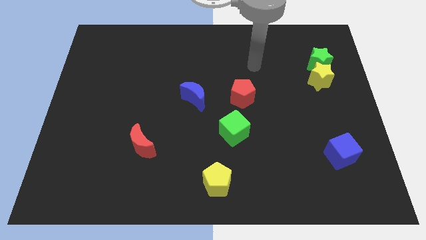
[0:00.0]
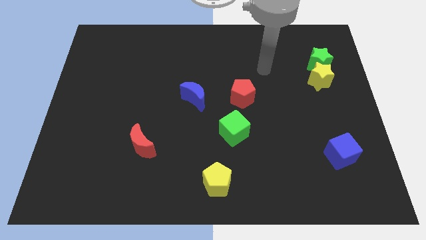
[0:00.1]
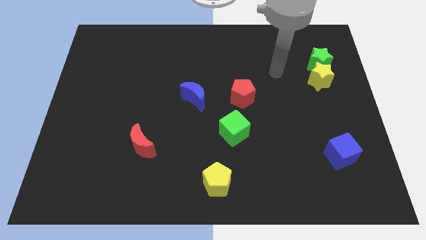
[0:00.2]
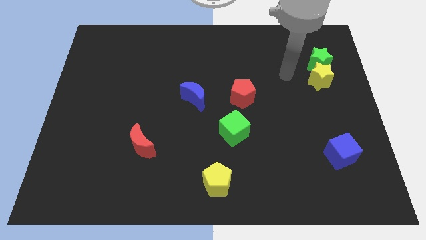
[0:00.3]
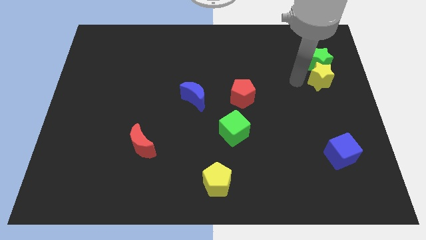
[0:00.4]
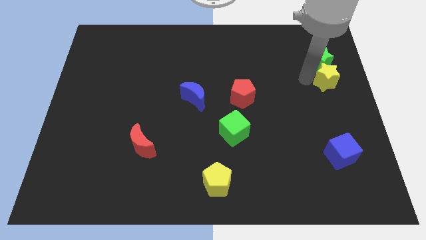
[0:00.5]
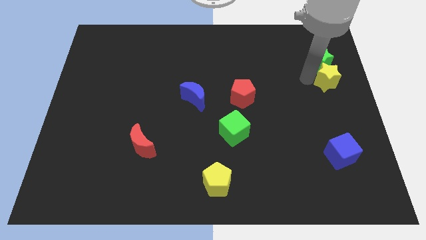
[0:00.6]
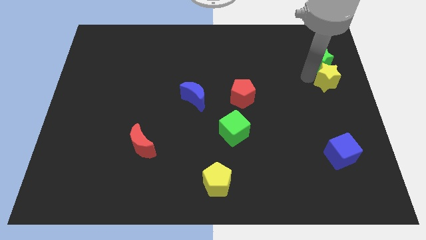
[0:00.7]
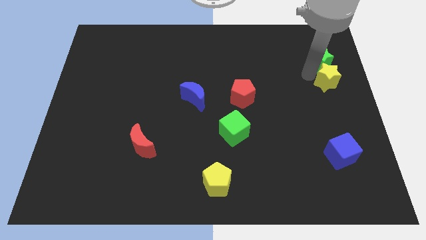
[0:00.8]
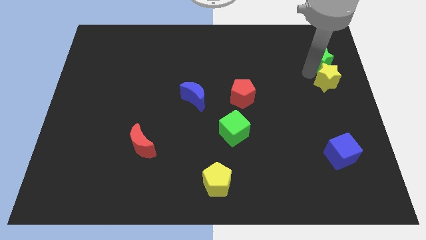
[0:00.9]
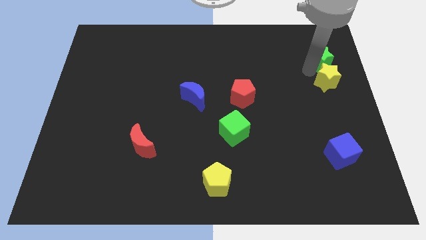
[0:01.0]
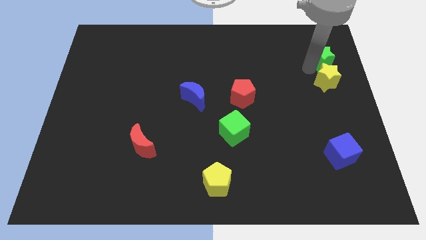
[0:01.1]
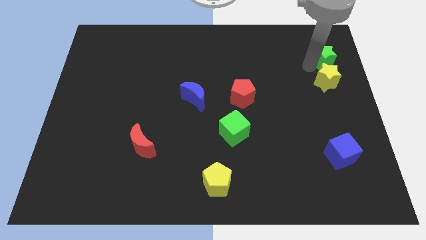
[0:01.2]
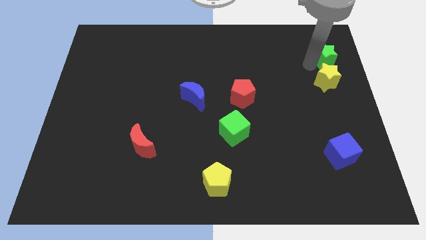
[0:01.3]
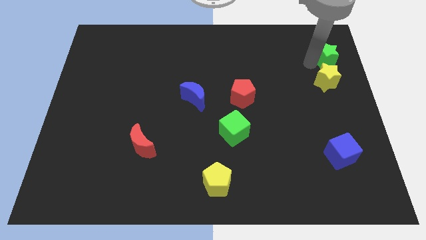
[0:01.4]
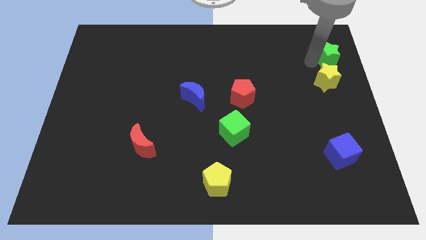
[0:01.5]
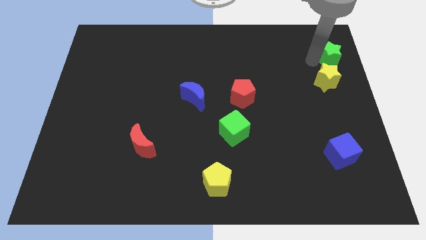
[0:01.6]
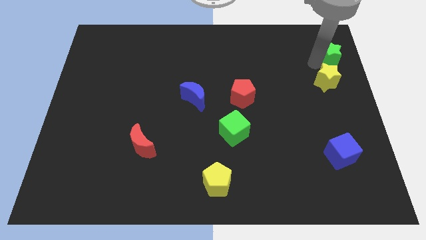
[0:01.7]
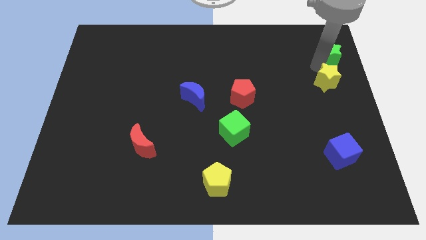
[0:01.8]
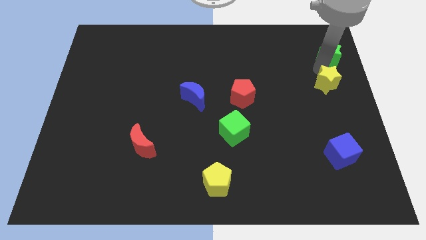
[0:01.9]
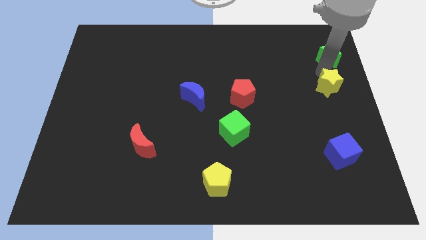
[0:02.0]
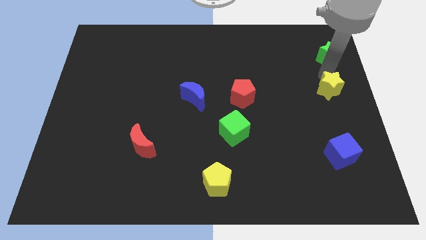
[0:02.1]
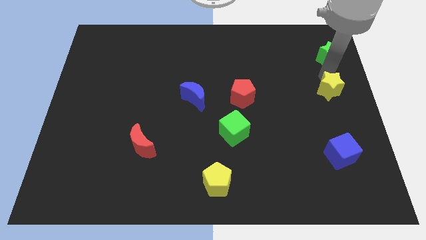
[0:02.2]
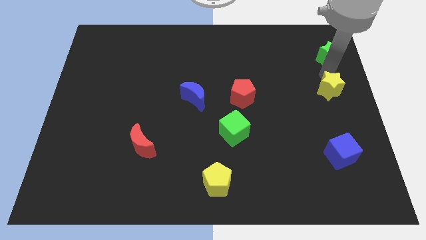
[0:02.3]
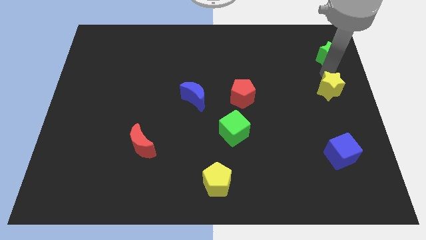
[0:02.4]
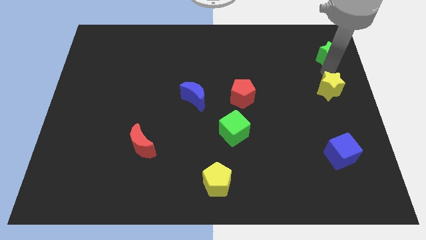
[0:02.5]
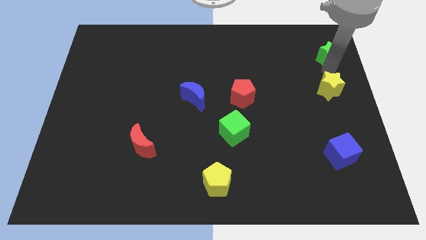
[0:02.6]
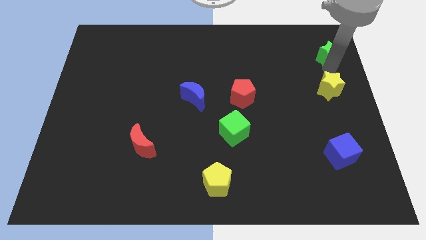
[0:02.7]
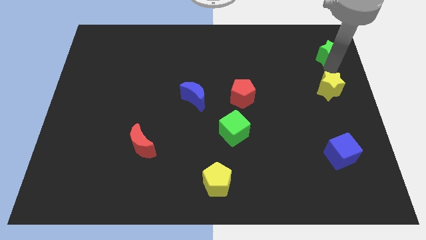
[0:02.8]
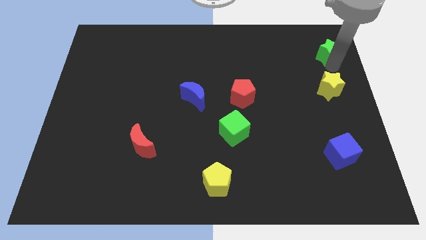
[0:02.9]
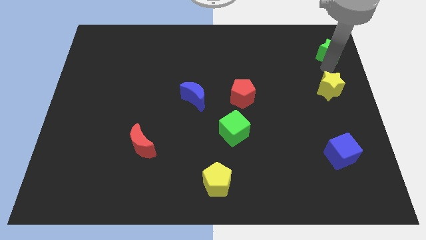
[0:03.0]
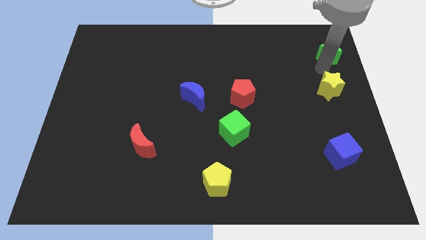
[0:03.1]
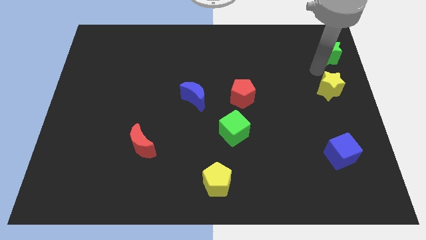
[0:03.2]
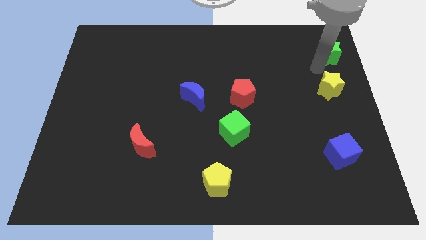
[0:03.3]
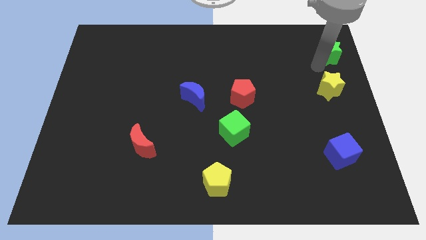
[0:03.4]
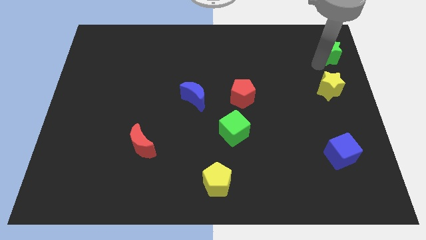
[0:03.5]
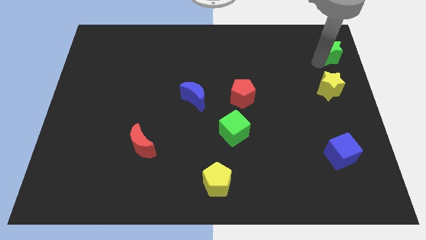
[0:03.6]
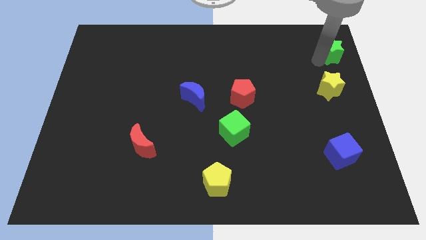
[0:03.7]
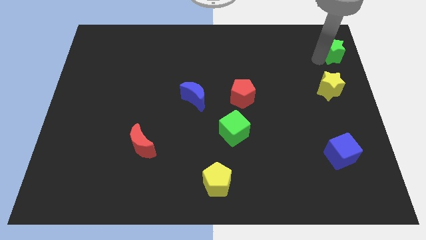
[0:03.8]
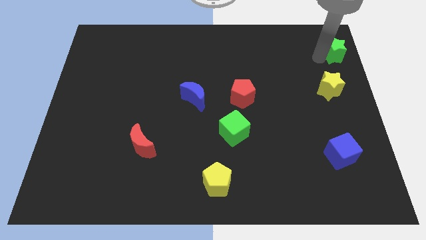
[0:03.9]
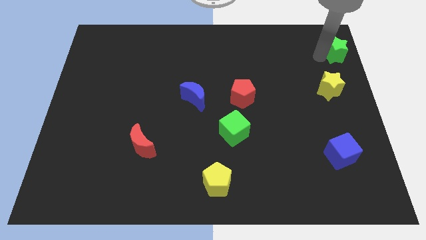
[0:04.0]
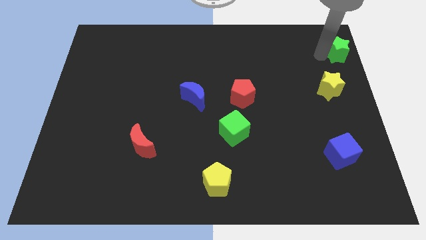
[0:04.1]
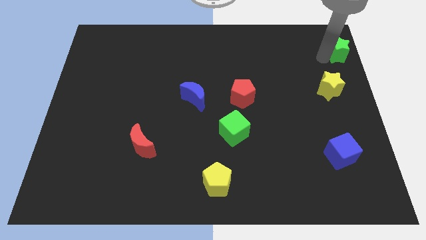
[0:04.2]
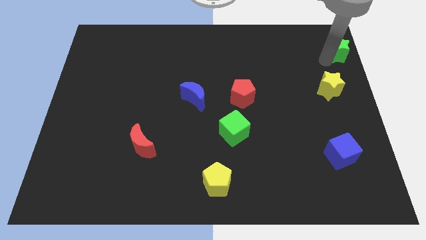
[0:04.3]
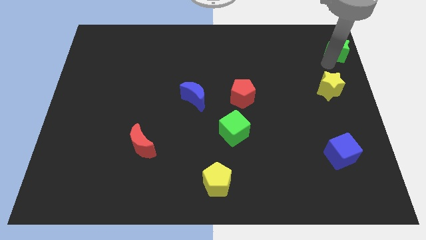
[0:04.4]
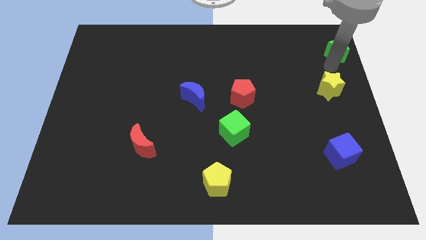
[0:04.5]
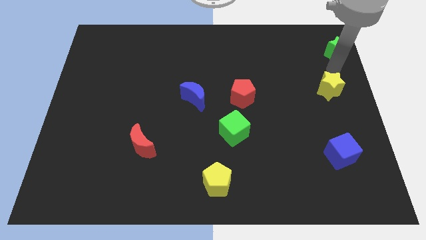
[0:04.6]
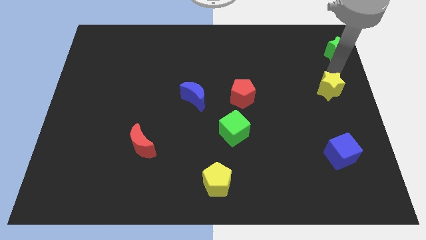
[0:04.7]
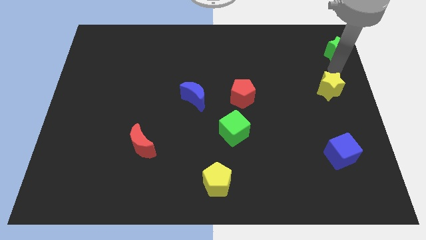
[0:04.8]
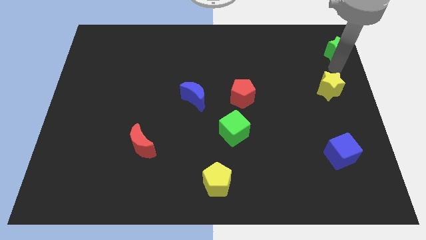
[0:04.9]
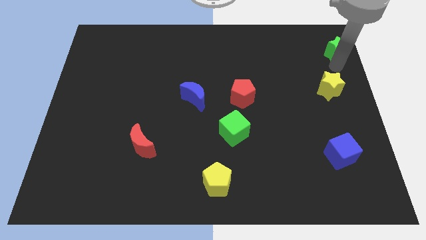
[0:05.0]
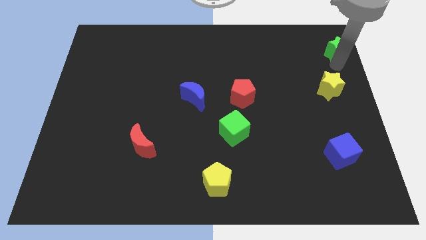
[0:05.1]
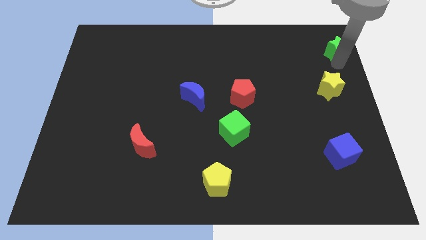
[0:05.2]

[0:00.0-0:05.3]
move the green star to the top right of the board
